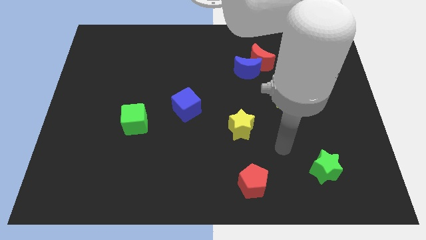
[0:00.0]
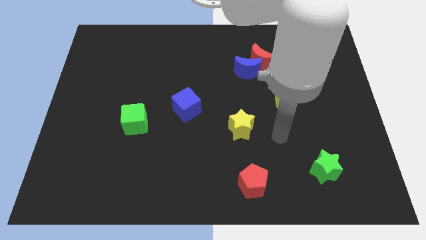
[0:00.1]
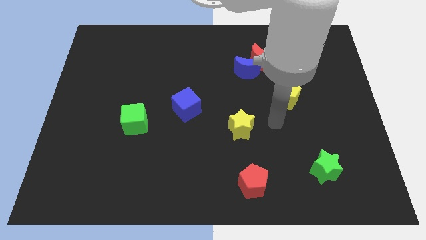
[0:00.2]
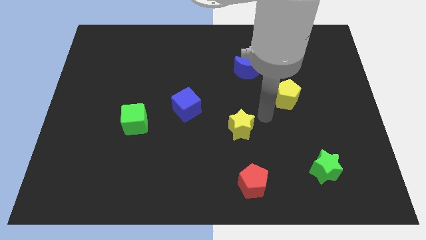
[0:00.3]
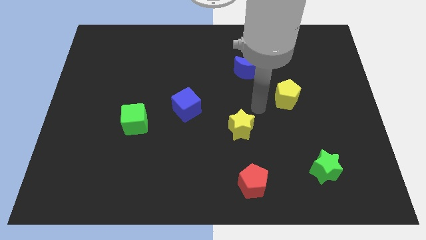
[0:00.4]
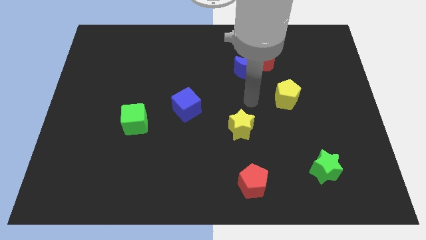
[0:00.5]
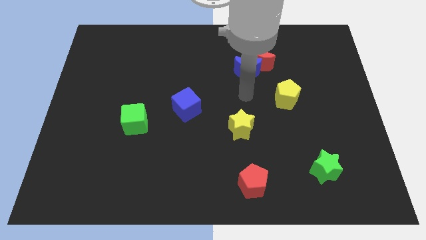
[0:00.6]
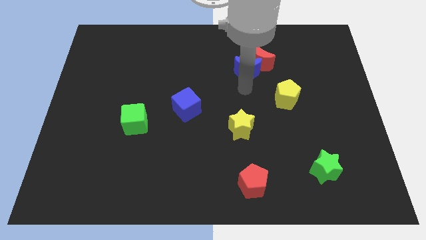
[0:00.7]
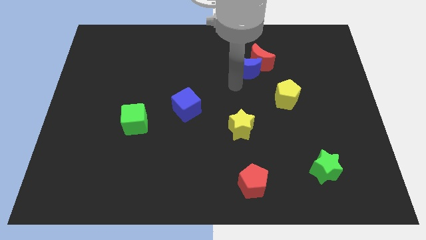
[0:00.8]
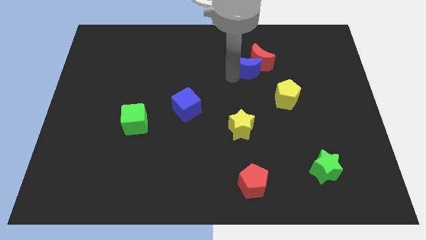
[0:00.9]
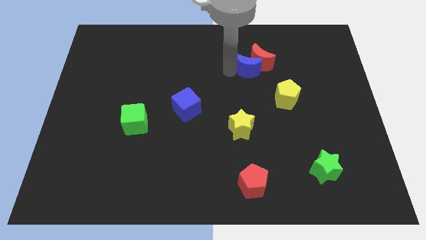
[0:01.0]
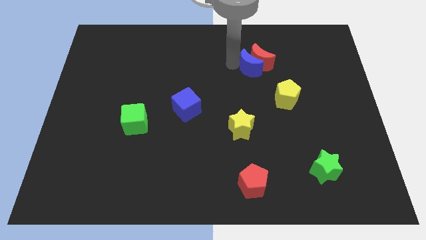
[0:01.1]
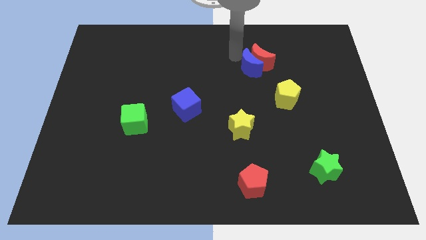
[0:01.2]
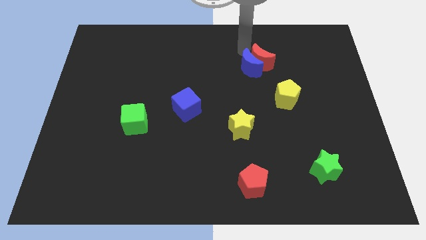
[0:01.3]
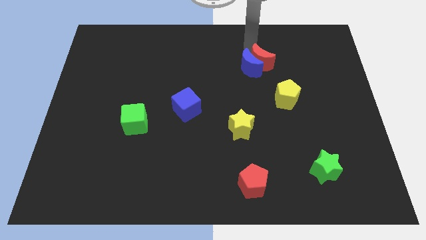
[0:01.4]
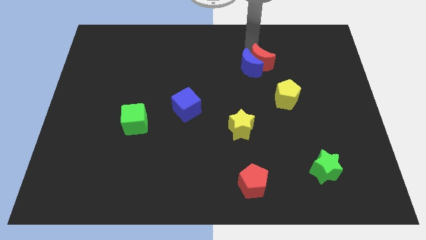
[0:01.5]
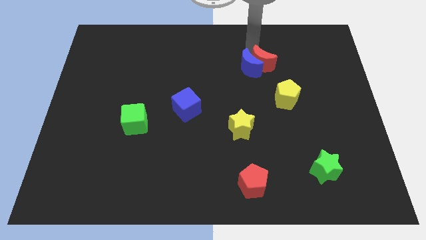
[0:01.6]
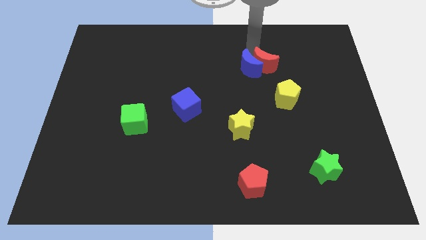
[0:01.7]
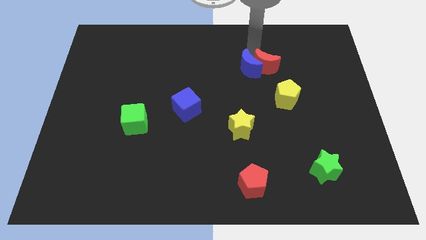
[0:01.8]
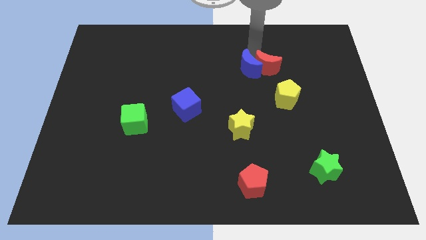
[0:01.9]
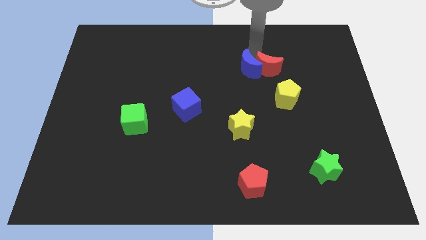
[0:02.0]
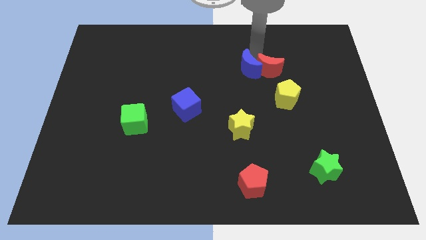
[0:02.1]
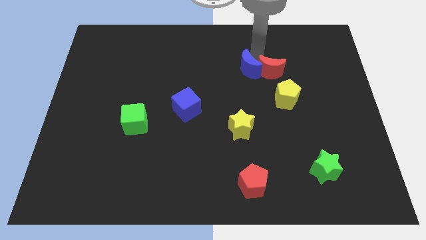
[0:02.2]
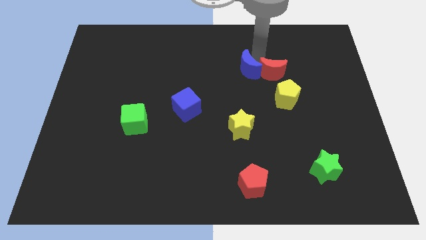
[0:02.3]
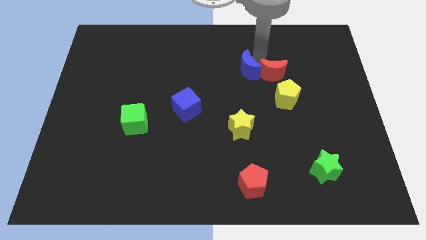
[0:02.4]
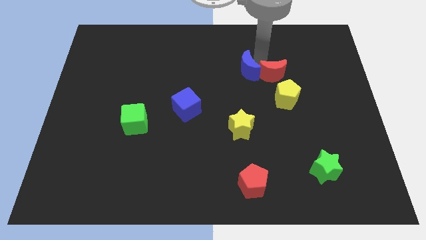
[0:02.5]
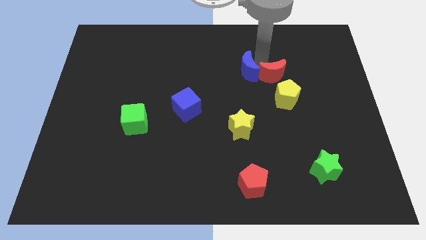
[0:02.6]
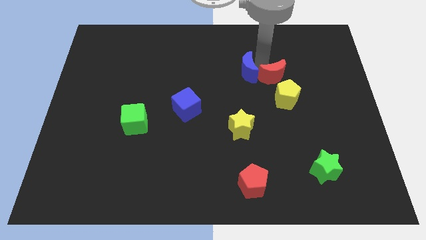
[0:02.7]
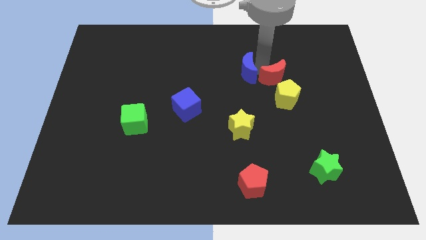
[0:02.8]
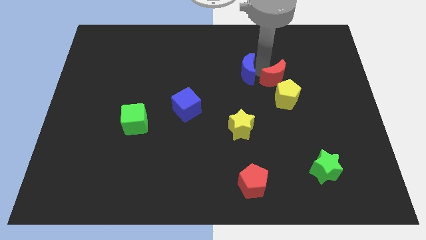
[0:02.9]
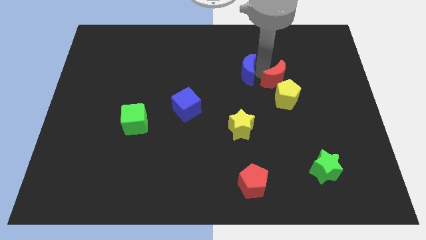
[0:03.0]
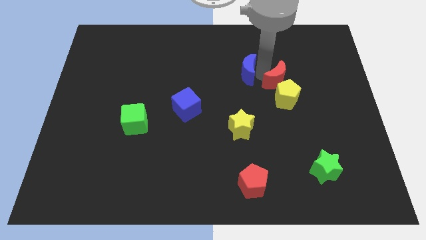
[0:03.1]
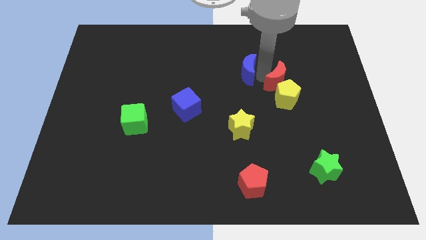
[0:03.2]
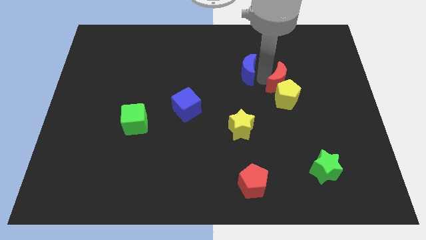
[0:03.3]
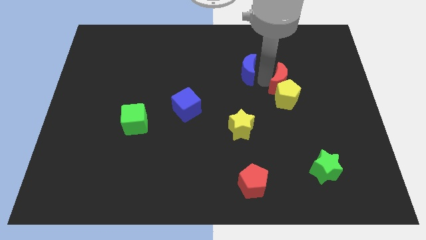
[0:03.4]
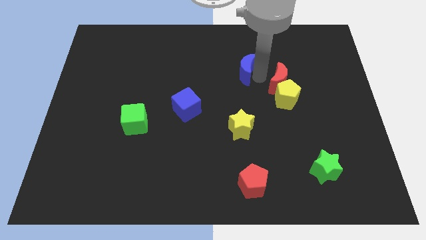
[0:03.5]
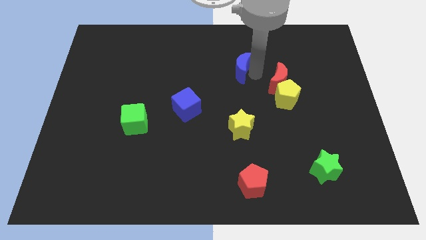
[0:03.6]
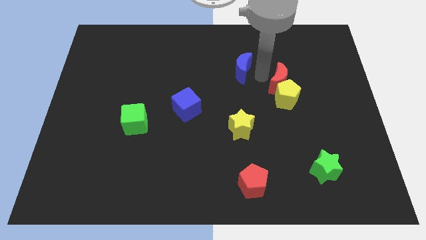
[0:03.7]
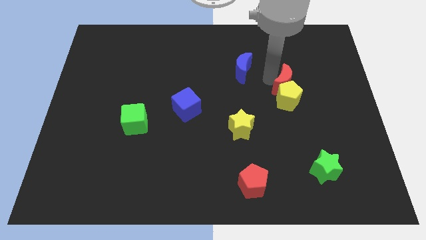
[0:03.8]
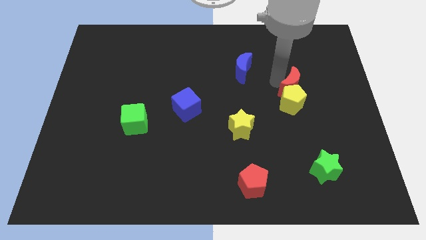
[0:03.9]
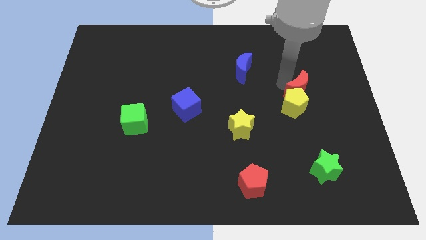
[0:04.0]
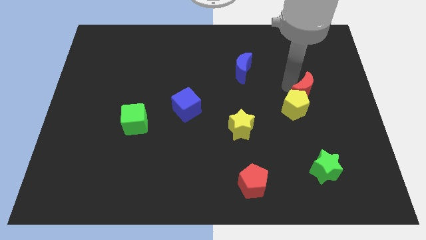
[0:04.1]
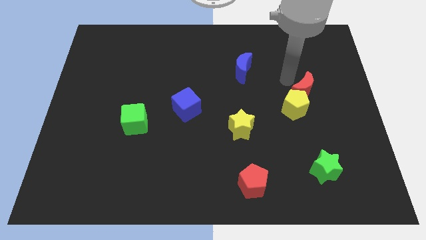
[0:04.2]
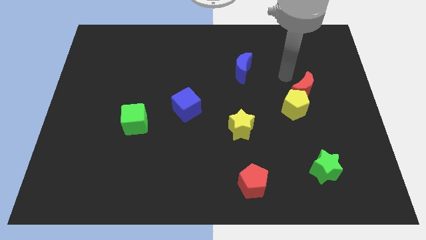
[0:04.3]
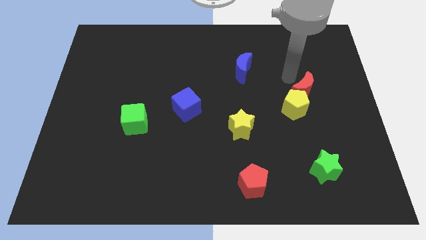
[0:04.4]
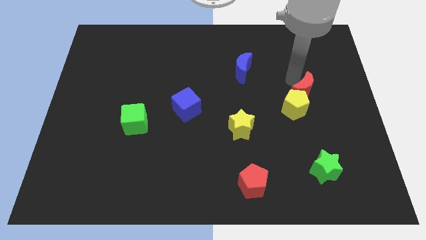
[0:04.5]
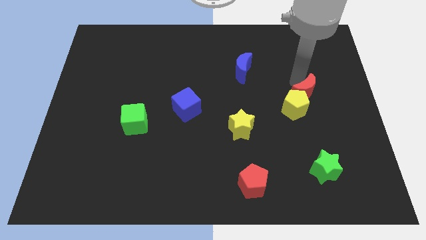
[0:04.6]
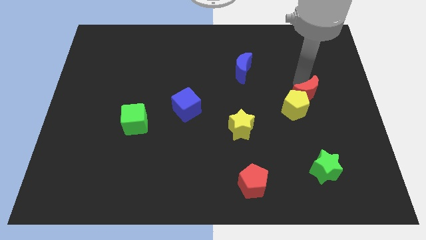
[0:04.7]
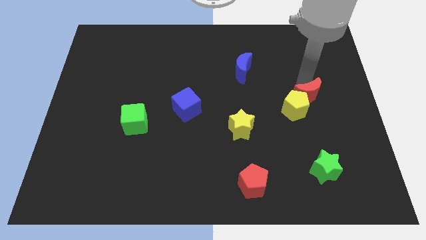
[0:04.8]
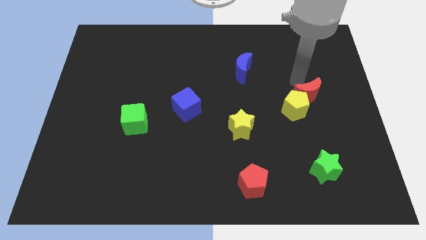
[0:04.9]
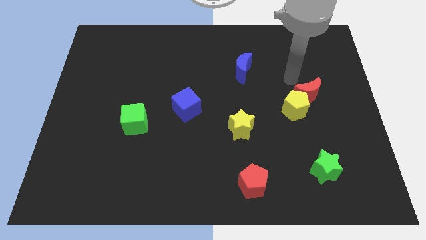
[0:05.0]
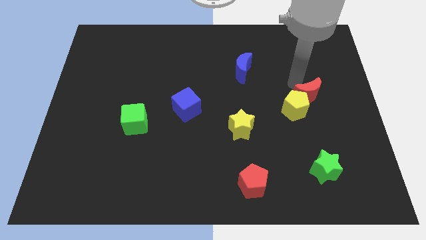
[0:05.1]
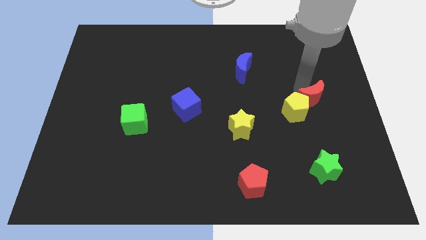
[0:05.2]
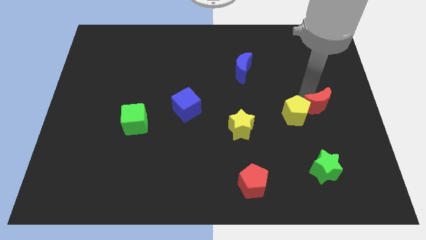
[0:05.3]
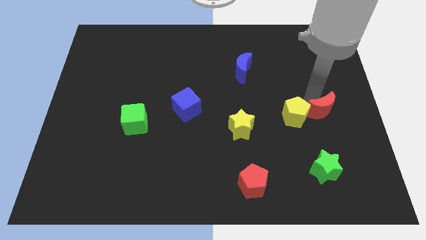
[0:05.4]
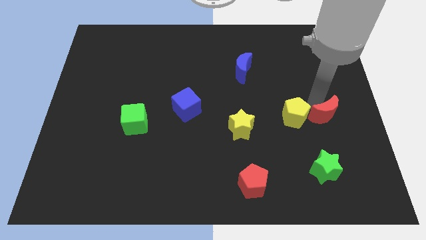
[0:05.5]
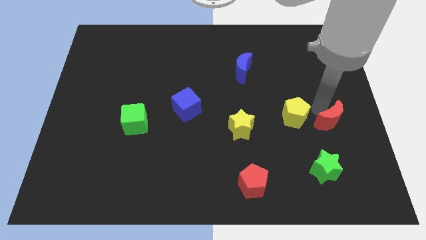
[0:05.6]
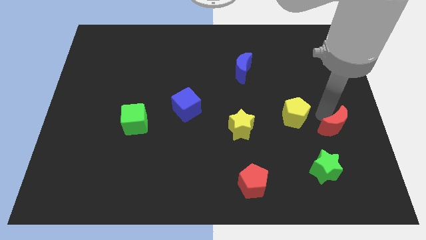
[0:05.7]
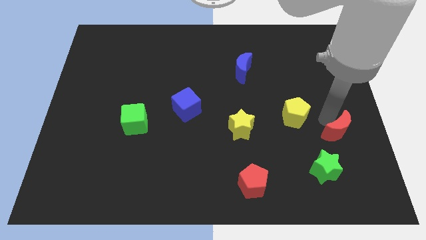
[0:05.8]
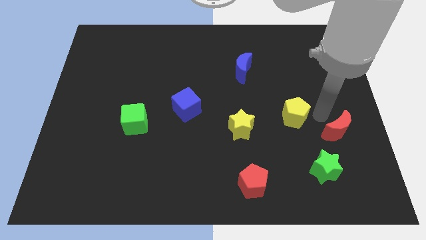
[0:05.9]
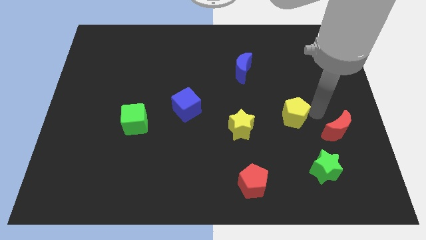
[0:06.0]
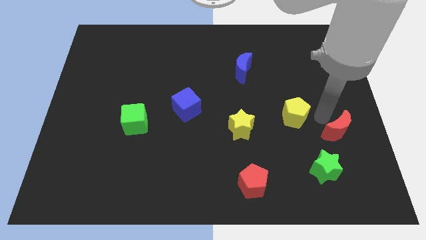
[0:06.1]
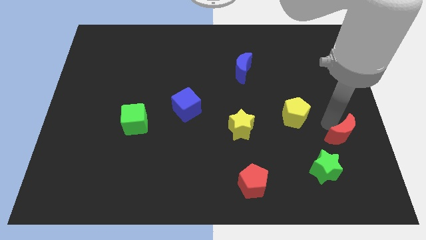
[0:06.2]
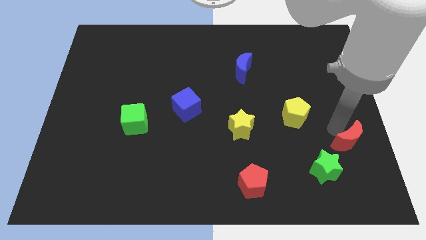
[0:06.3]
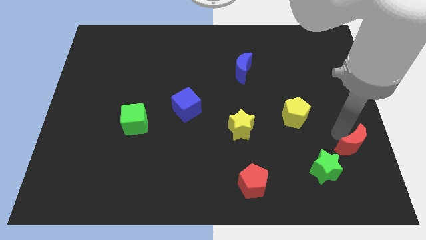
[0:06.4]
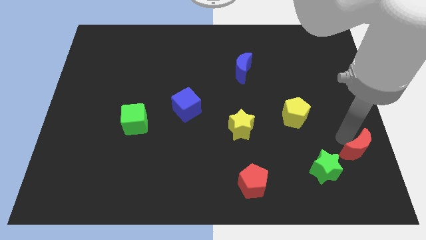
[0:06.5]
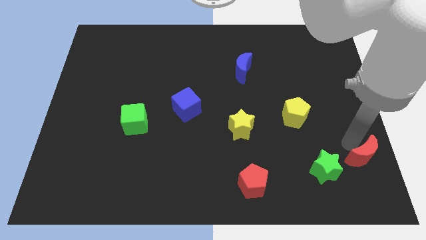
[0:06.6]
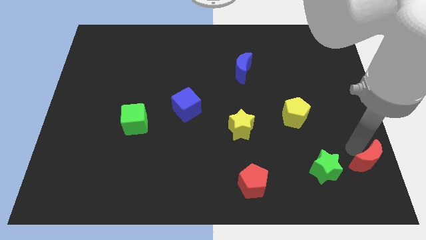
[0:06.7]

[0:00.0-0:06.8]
slide the red moon to the bottom right corner

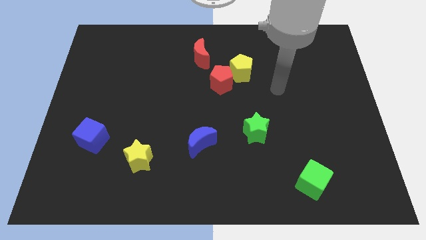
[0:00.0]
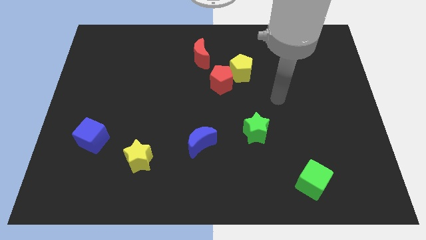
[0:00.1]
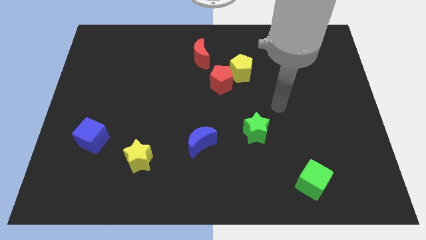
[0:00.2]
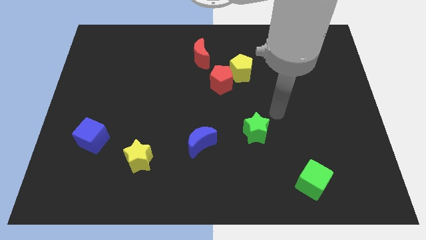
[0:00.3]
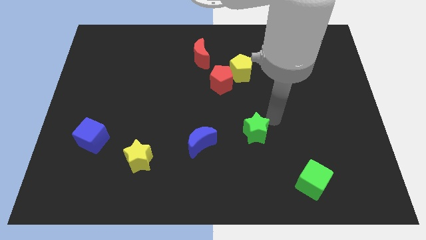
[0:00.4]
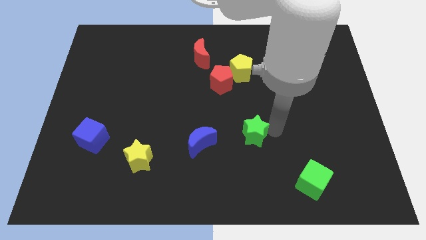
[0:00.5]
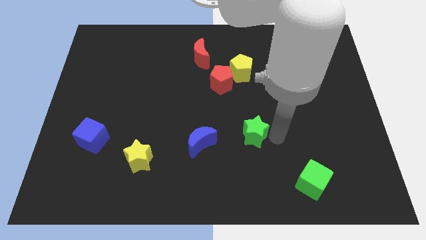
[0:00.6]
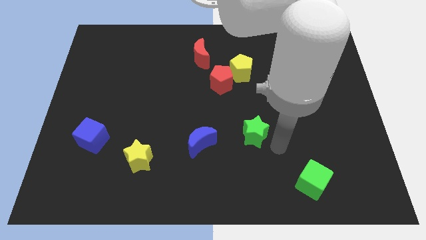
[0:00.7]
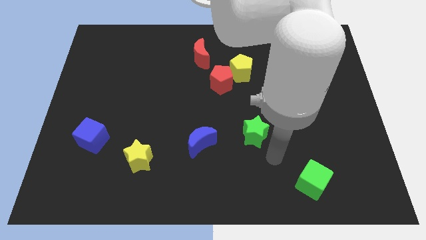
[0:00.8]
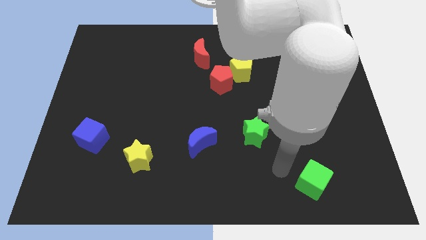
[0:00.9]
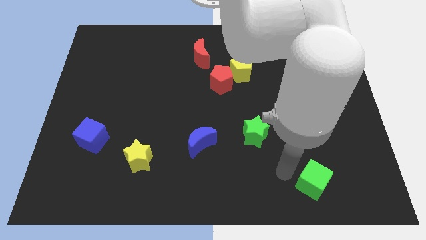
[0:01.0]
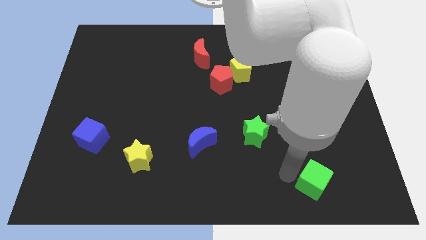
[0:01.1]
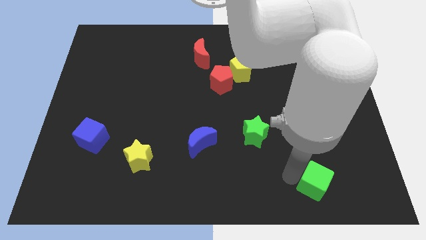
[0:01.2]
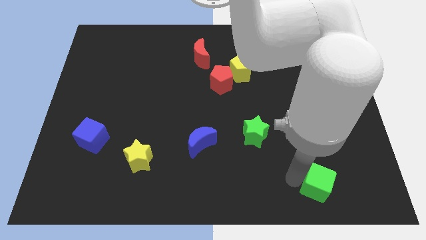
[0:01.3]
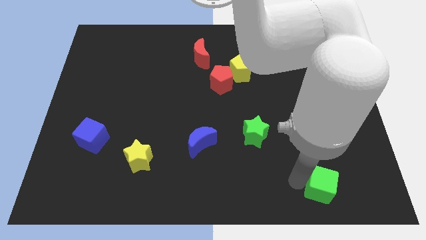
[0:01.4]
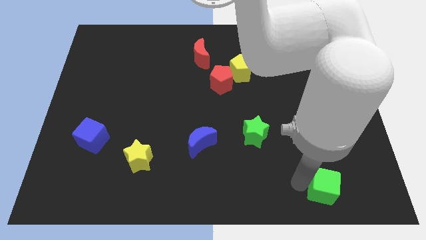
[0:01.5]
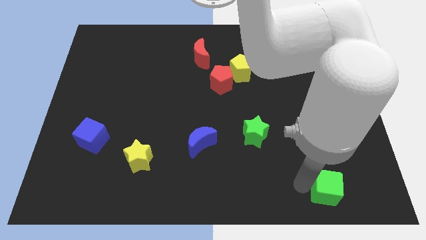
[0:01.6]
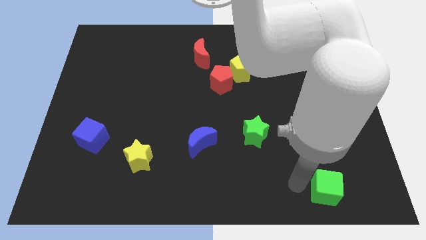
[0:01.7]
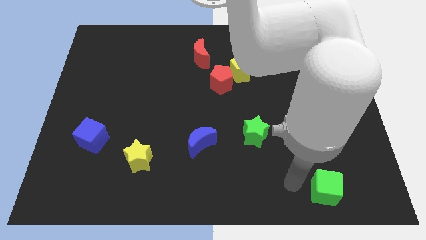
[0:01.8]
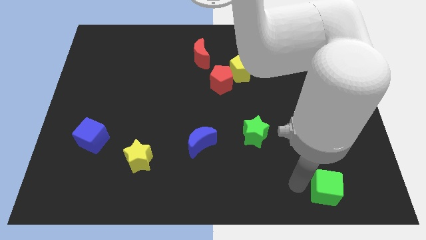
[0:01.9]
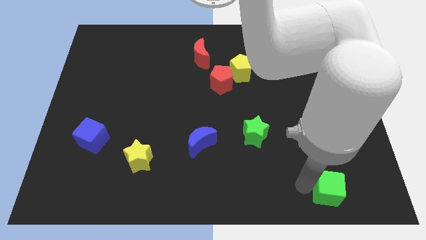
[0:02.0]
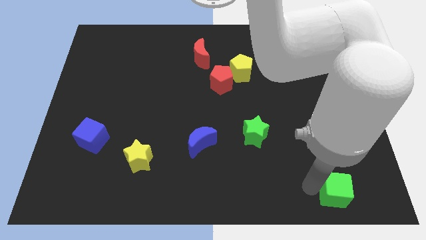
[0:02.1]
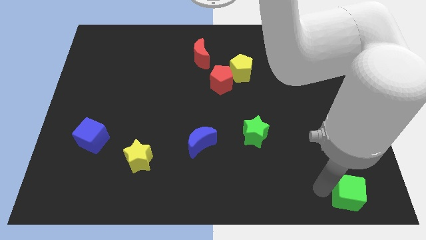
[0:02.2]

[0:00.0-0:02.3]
move the green cube to the bottom right corner
